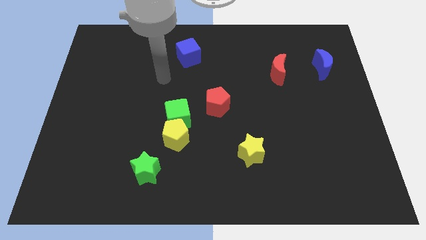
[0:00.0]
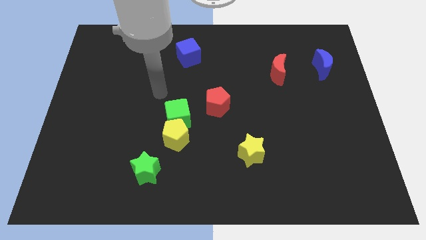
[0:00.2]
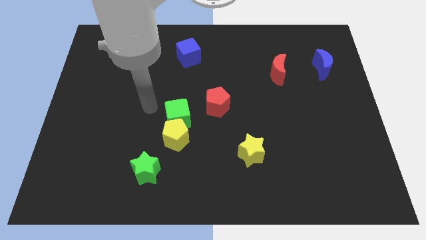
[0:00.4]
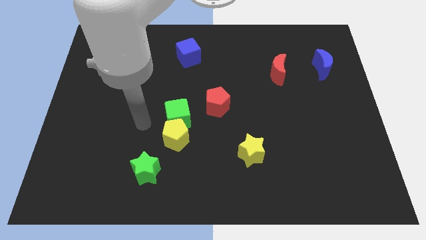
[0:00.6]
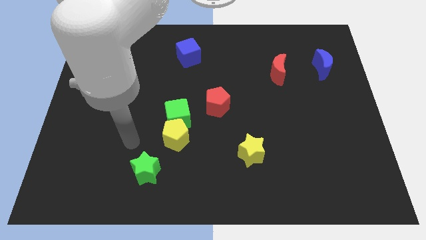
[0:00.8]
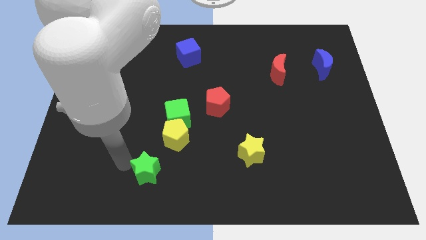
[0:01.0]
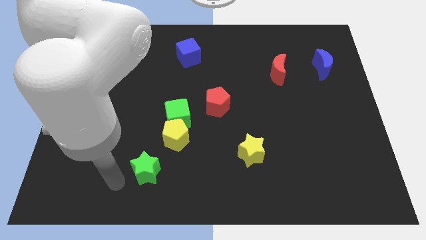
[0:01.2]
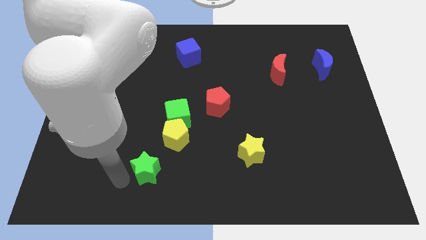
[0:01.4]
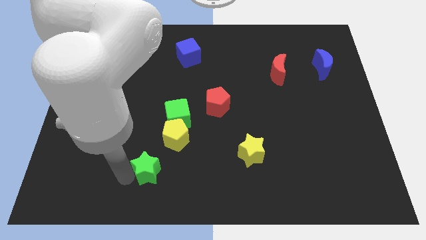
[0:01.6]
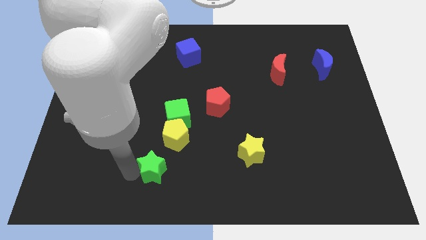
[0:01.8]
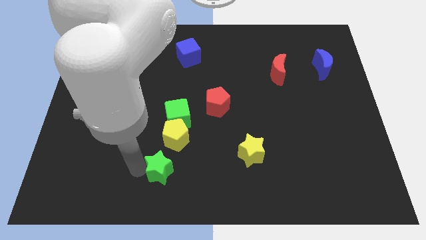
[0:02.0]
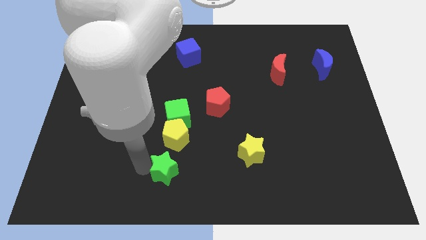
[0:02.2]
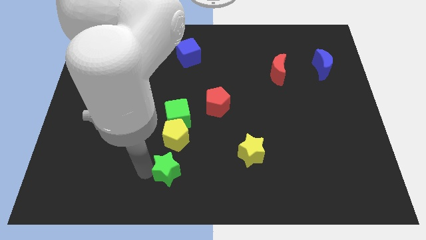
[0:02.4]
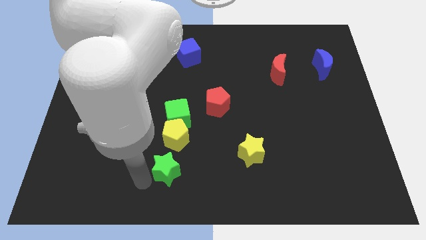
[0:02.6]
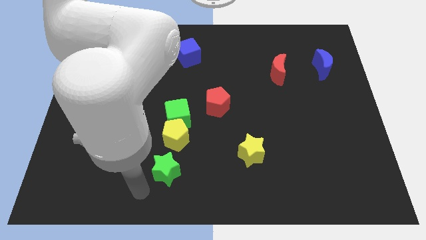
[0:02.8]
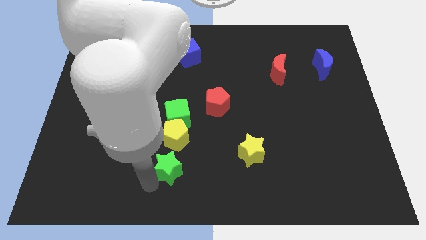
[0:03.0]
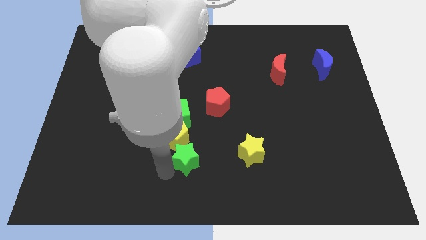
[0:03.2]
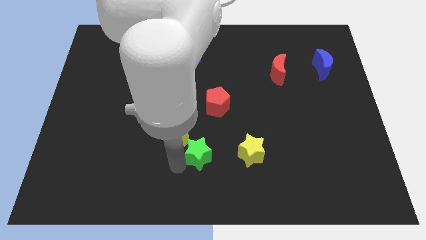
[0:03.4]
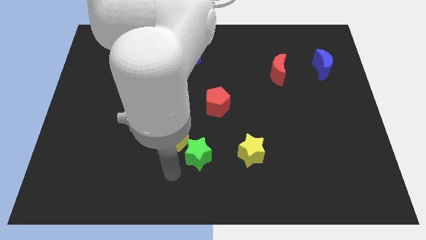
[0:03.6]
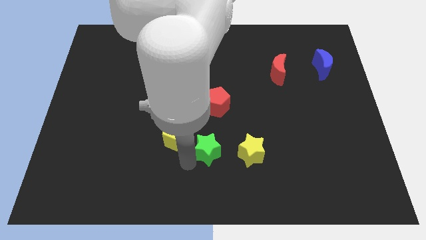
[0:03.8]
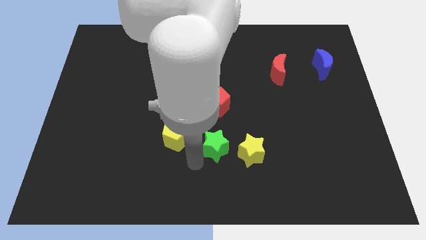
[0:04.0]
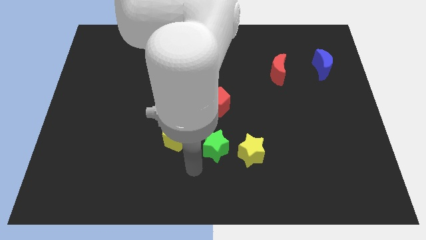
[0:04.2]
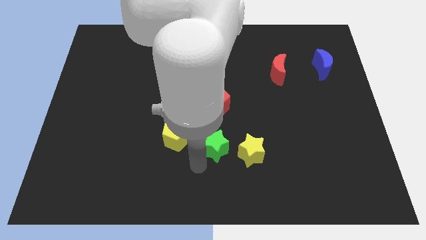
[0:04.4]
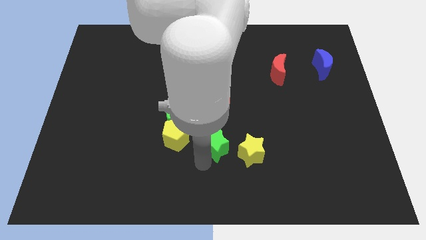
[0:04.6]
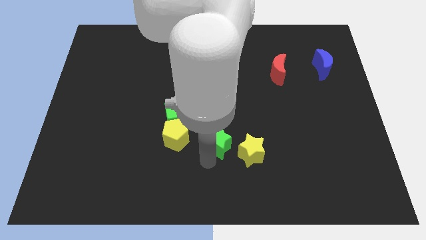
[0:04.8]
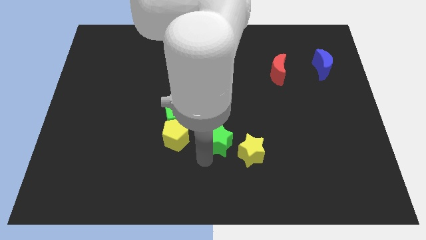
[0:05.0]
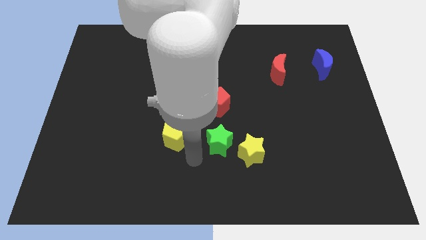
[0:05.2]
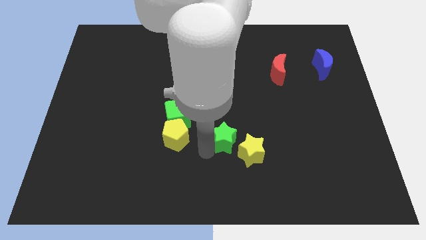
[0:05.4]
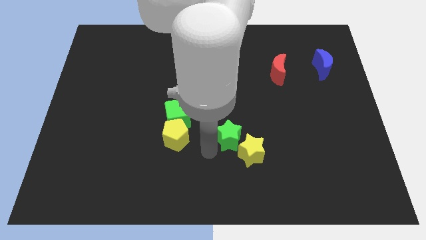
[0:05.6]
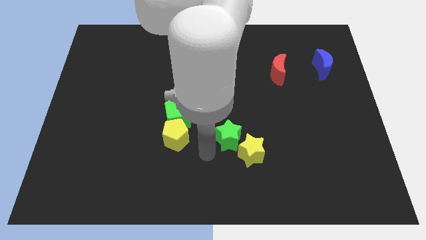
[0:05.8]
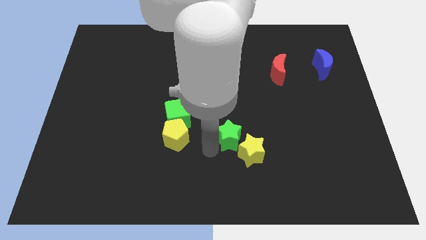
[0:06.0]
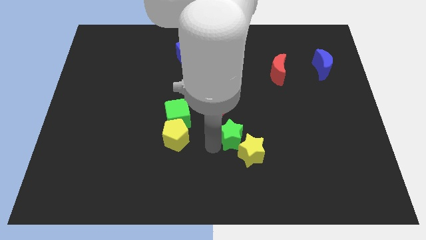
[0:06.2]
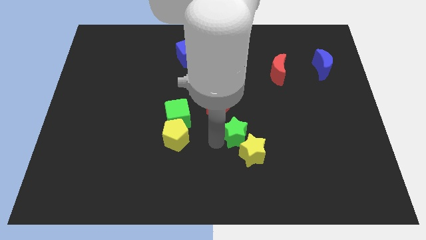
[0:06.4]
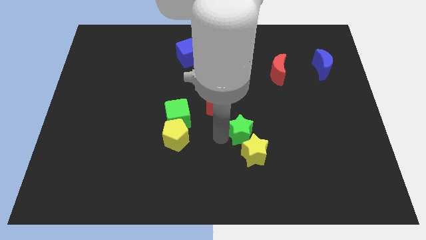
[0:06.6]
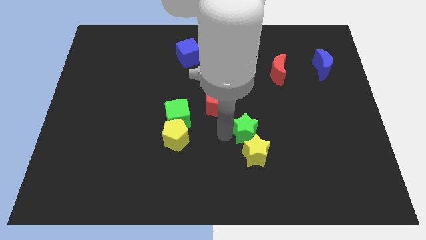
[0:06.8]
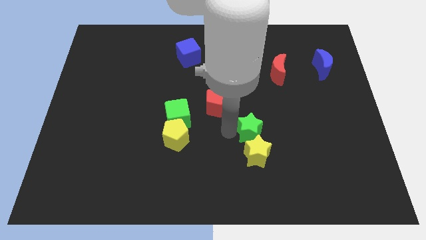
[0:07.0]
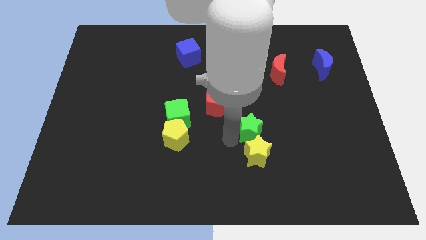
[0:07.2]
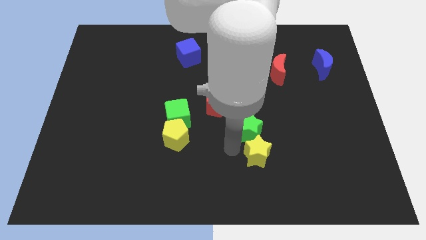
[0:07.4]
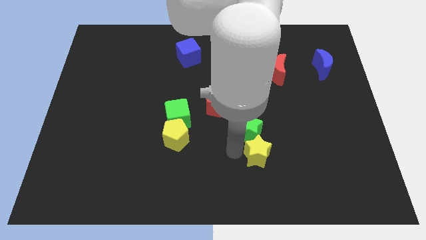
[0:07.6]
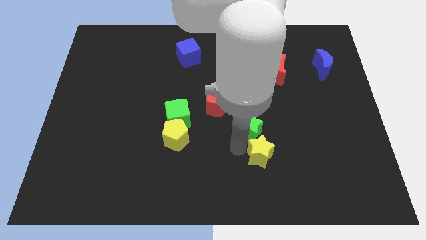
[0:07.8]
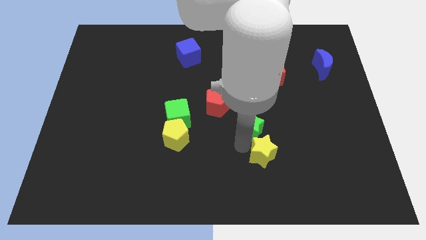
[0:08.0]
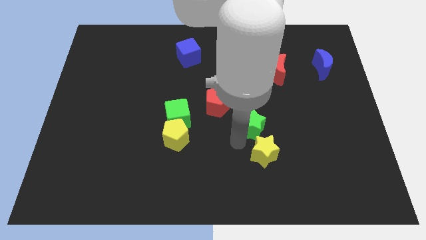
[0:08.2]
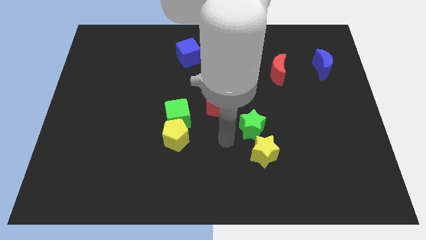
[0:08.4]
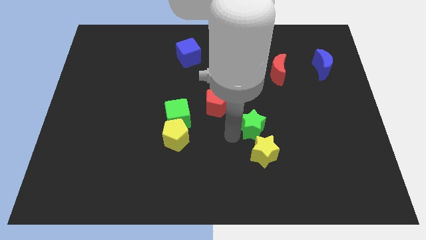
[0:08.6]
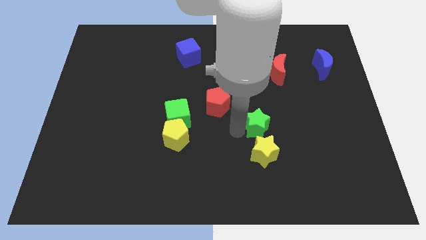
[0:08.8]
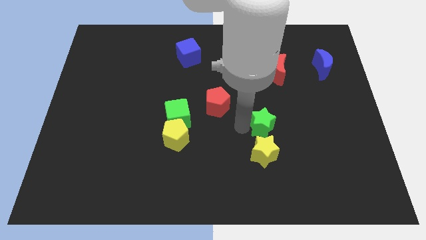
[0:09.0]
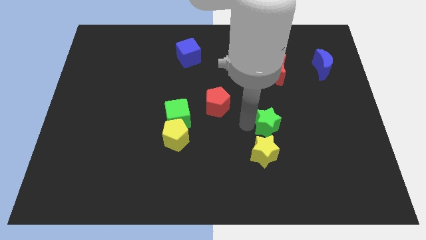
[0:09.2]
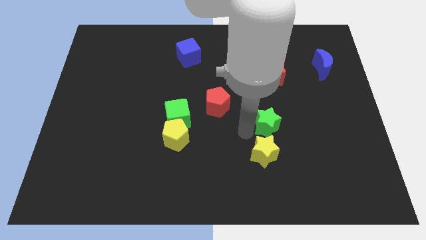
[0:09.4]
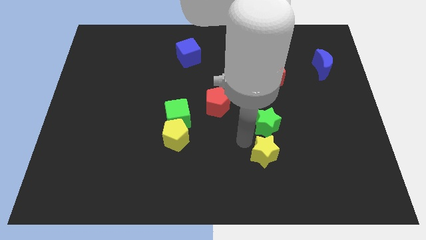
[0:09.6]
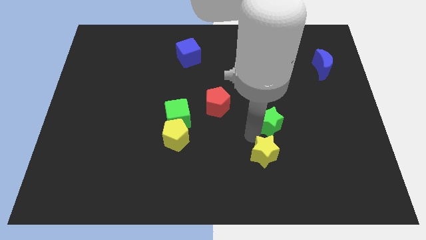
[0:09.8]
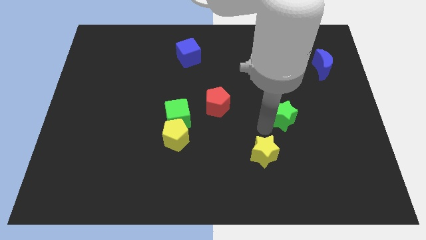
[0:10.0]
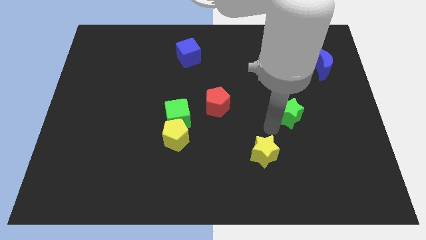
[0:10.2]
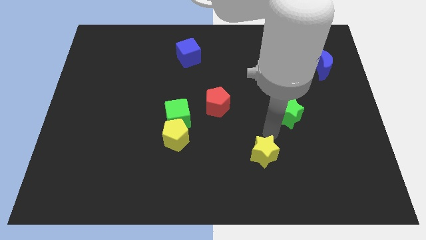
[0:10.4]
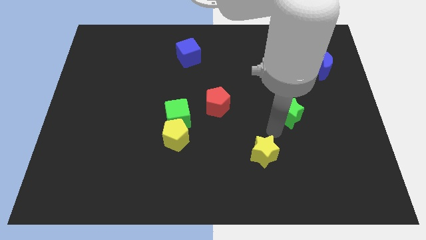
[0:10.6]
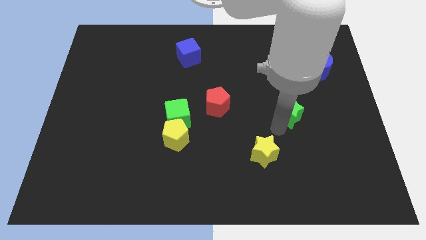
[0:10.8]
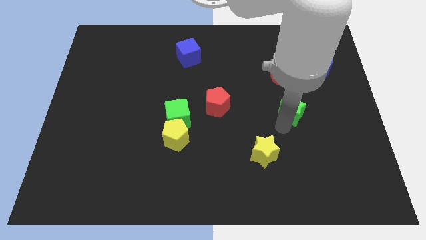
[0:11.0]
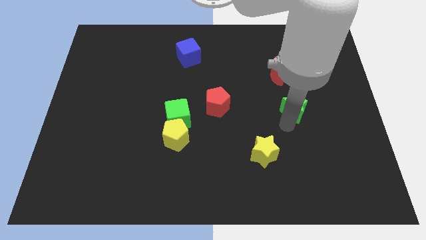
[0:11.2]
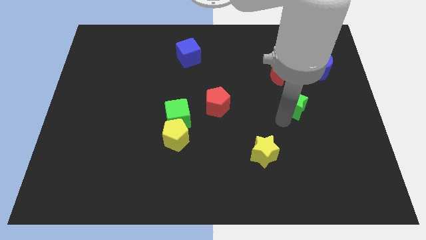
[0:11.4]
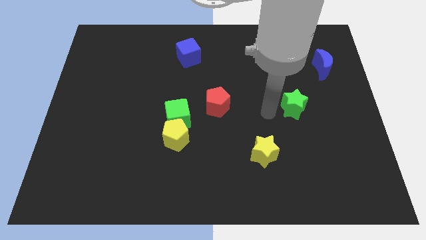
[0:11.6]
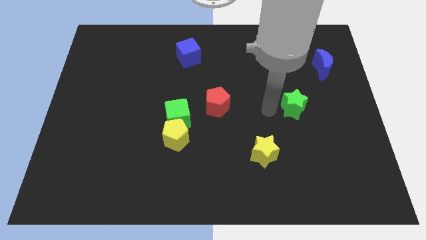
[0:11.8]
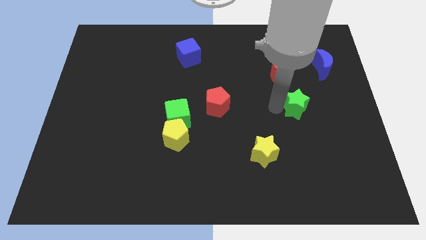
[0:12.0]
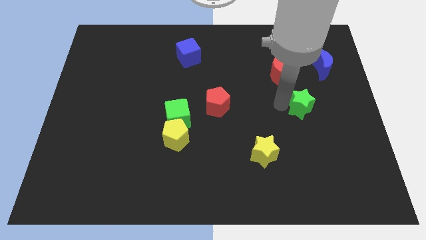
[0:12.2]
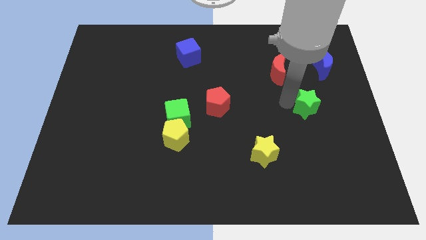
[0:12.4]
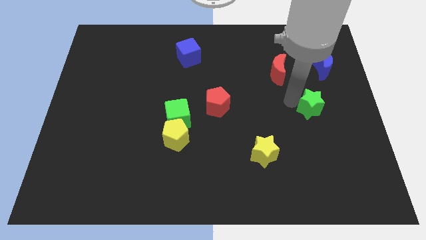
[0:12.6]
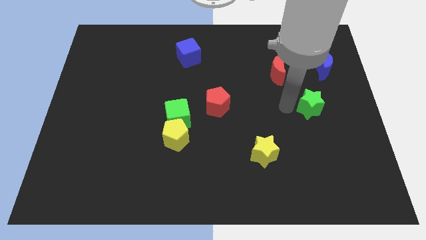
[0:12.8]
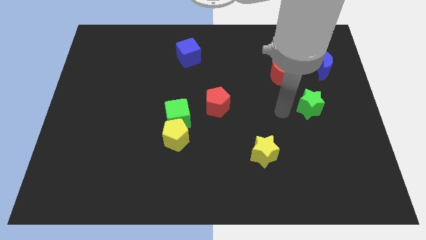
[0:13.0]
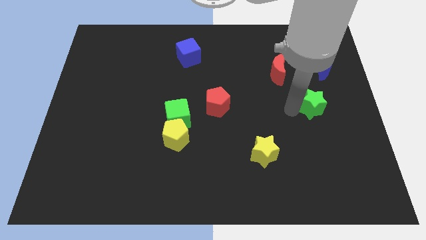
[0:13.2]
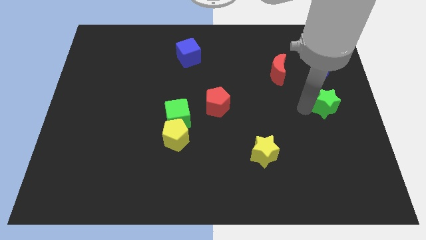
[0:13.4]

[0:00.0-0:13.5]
push the green star to the center right

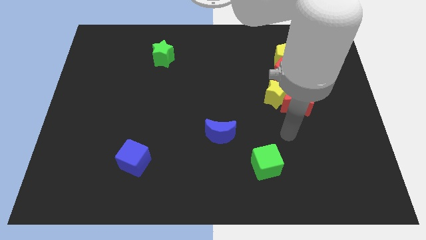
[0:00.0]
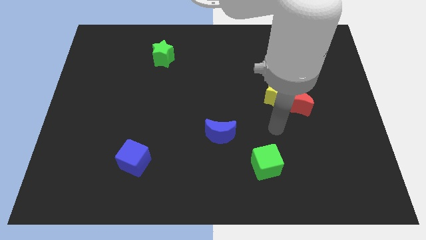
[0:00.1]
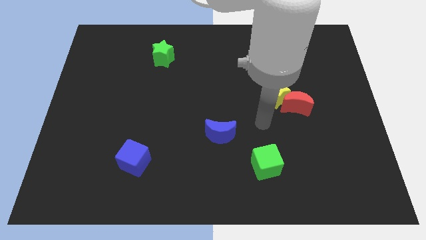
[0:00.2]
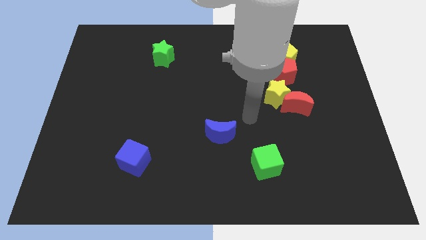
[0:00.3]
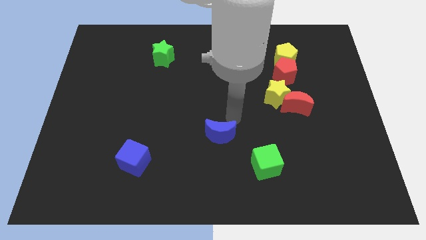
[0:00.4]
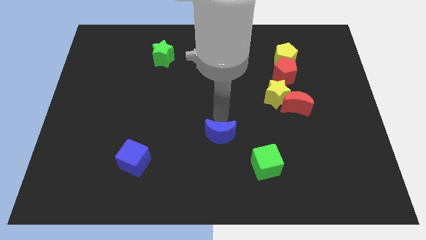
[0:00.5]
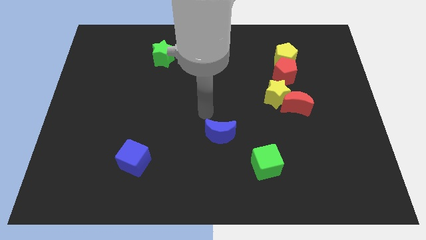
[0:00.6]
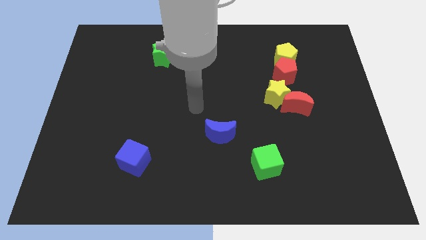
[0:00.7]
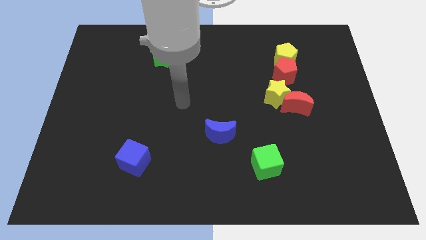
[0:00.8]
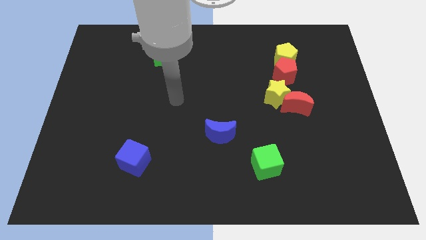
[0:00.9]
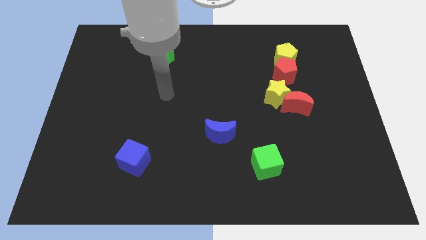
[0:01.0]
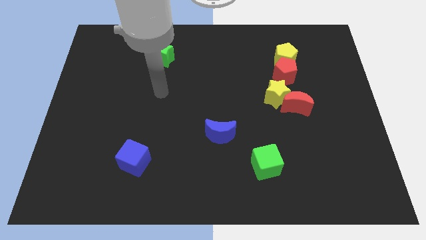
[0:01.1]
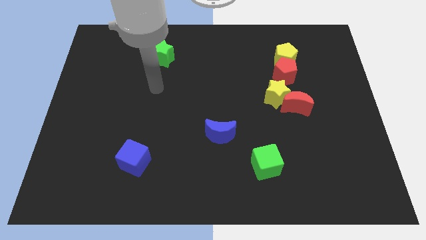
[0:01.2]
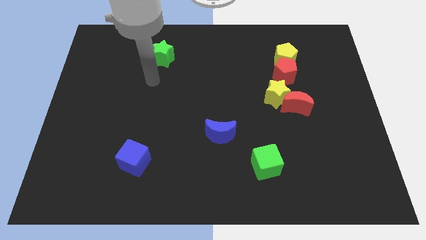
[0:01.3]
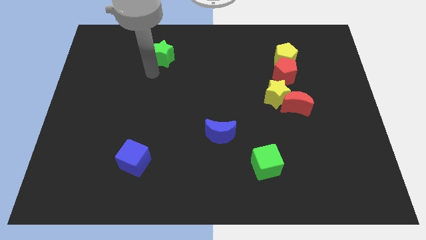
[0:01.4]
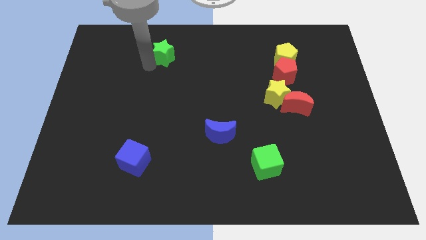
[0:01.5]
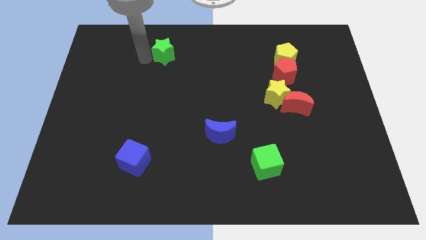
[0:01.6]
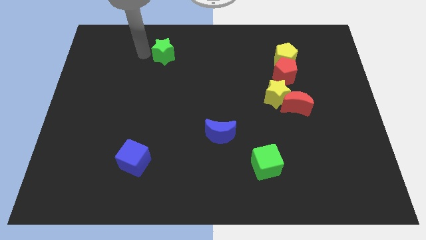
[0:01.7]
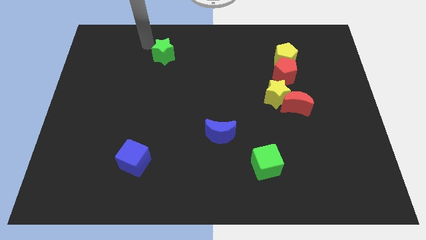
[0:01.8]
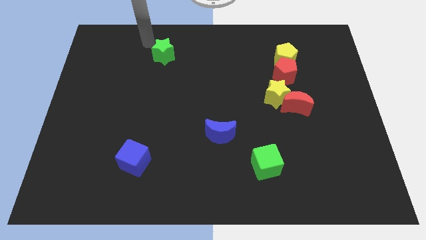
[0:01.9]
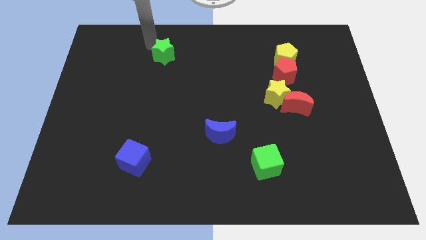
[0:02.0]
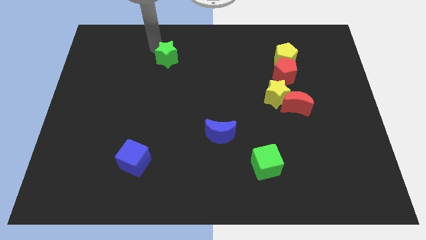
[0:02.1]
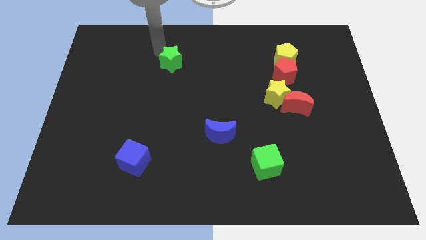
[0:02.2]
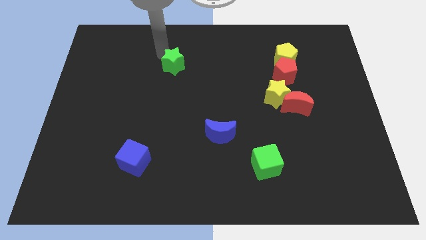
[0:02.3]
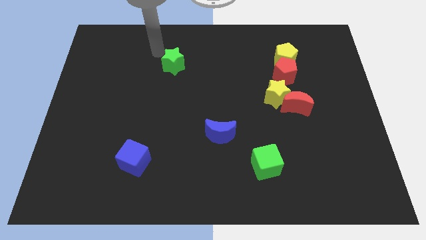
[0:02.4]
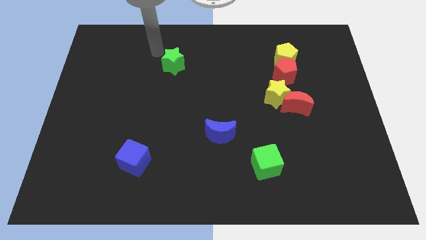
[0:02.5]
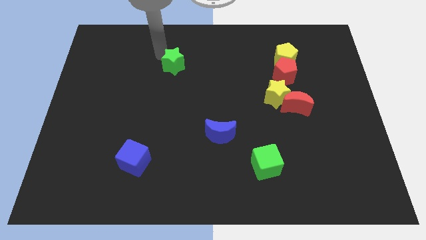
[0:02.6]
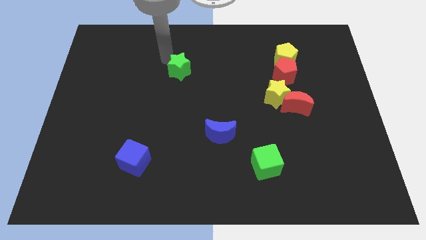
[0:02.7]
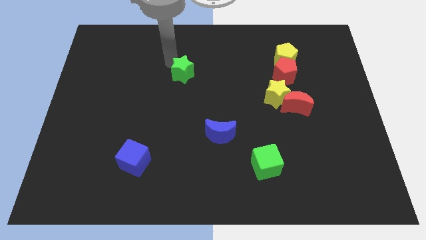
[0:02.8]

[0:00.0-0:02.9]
slide the green star to the middle
